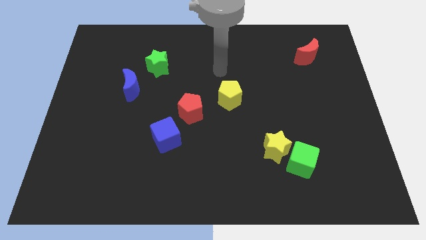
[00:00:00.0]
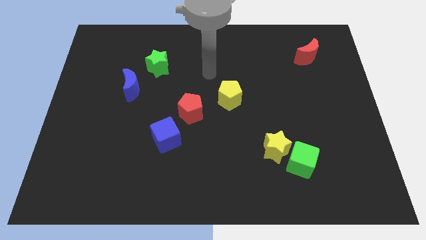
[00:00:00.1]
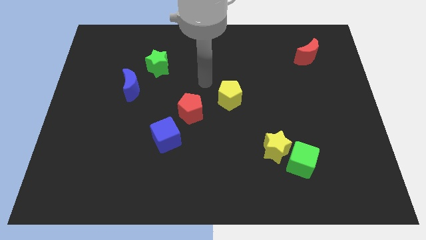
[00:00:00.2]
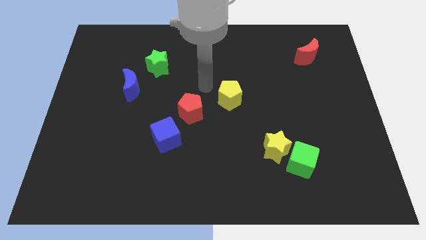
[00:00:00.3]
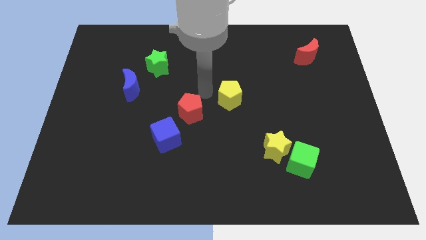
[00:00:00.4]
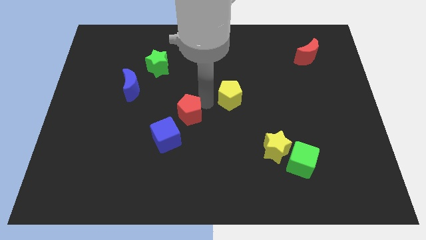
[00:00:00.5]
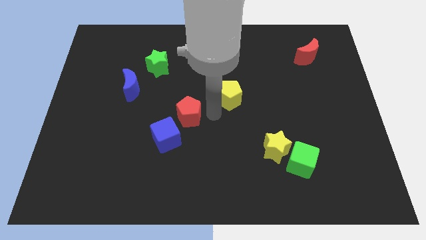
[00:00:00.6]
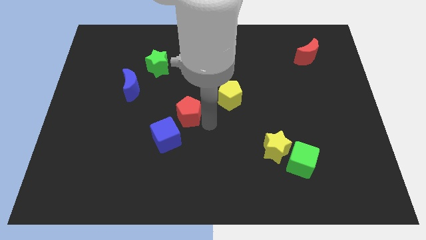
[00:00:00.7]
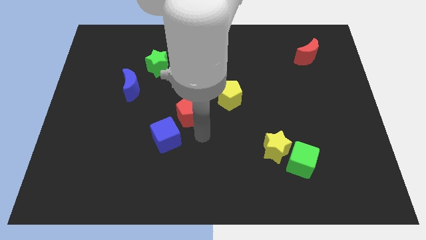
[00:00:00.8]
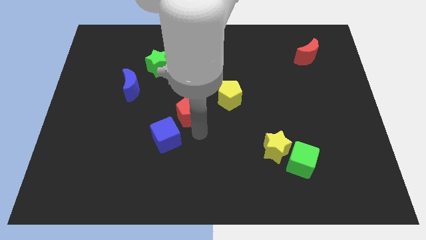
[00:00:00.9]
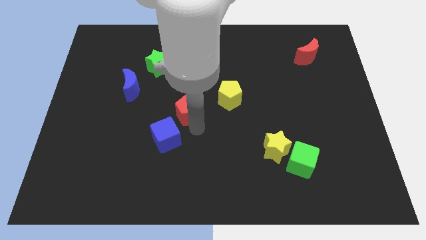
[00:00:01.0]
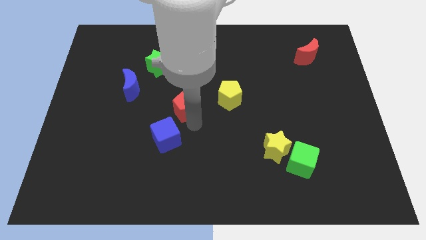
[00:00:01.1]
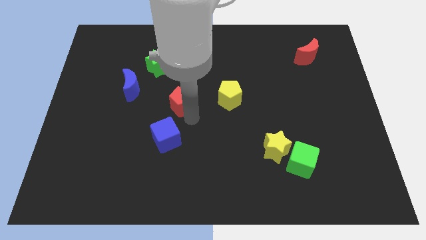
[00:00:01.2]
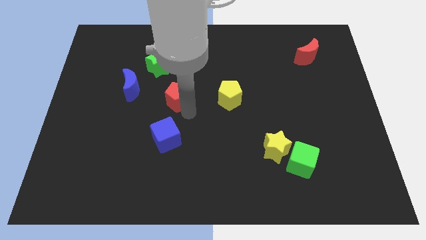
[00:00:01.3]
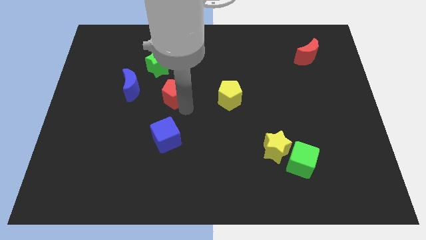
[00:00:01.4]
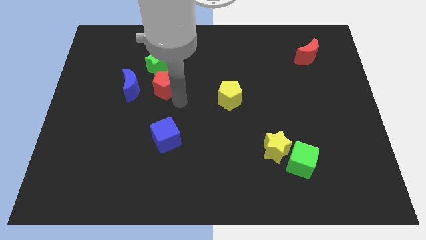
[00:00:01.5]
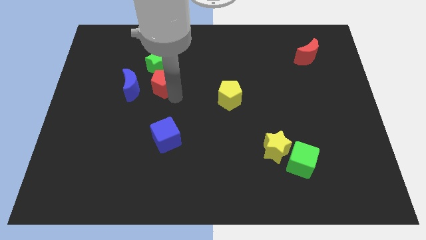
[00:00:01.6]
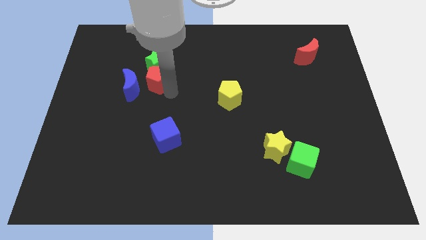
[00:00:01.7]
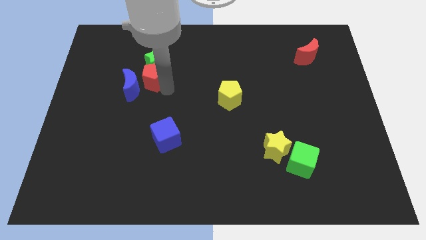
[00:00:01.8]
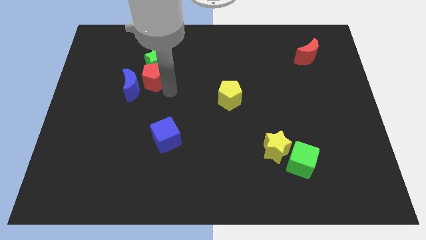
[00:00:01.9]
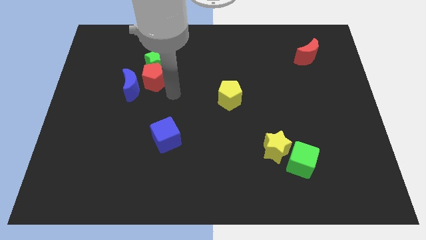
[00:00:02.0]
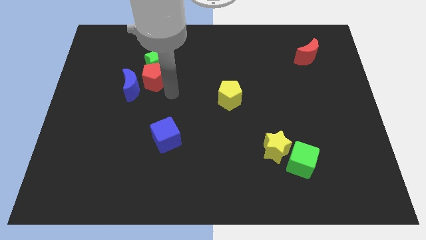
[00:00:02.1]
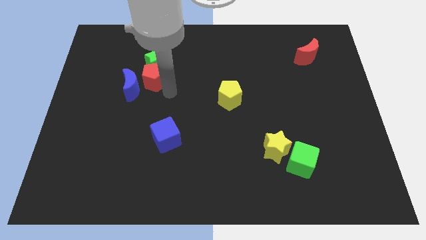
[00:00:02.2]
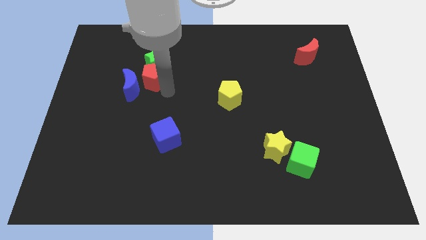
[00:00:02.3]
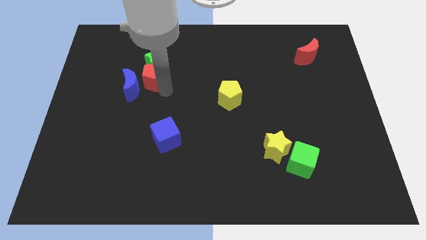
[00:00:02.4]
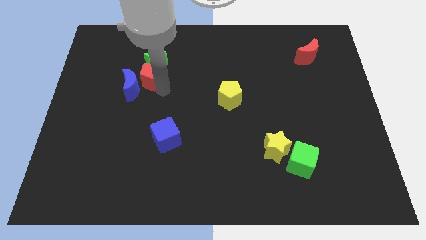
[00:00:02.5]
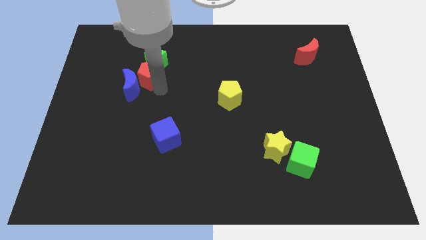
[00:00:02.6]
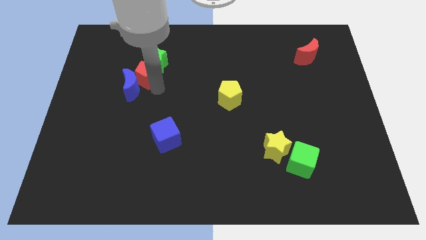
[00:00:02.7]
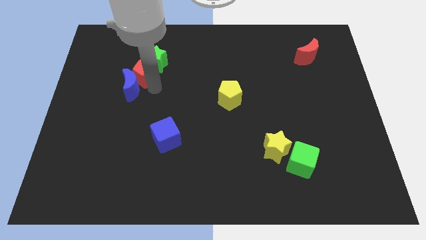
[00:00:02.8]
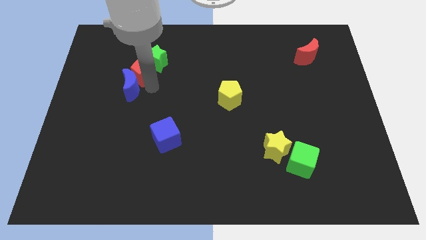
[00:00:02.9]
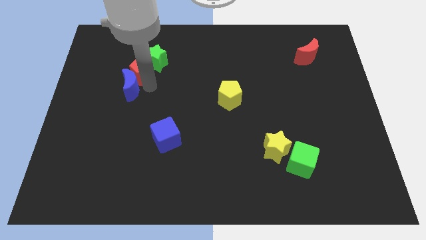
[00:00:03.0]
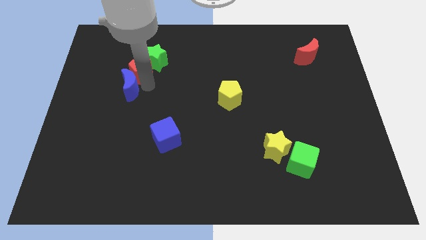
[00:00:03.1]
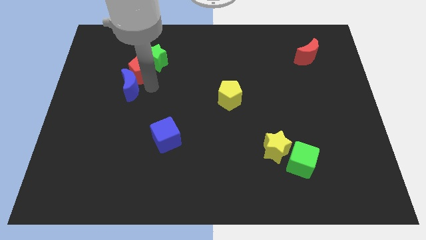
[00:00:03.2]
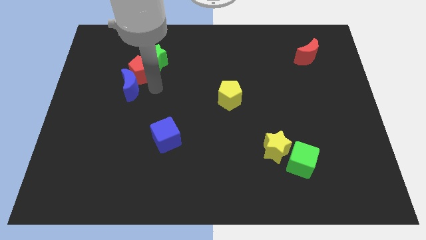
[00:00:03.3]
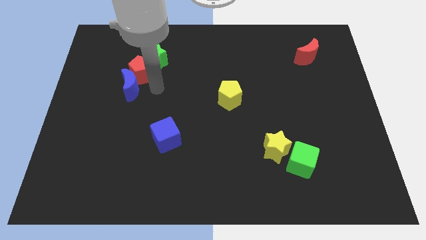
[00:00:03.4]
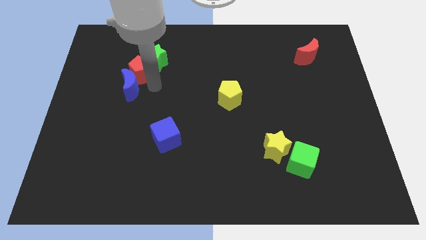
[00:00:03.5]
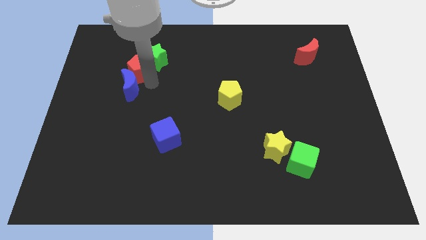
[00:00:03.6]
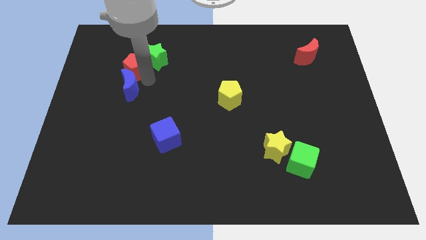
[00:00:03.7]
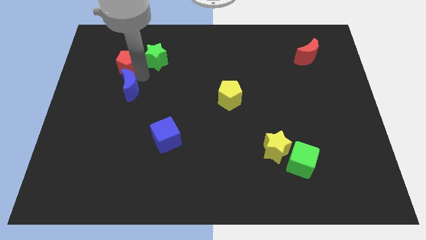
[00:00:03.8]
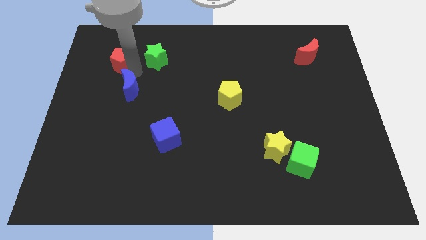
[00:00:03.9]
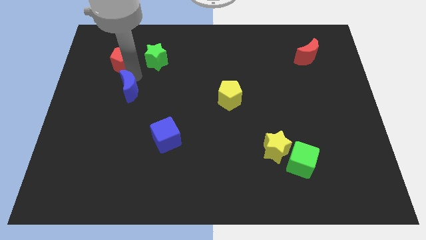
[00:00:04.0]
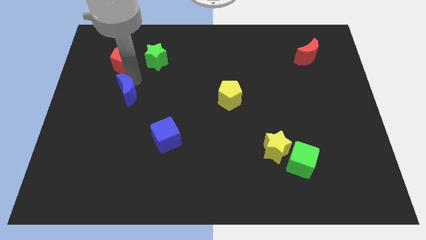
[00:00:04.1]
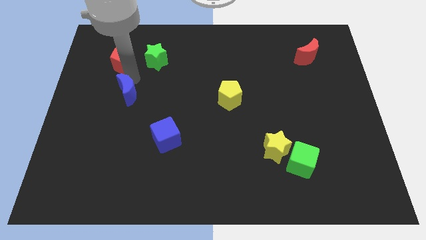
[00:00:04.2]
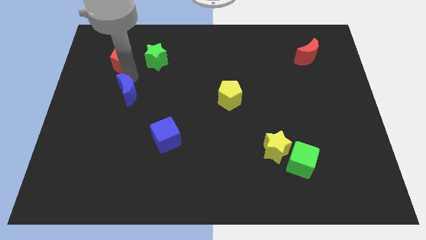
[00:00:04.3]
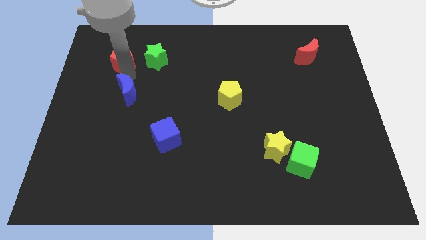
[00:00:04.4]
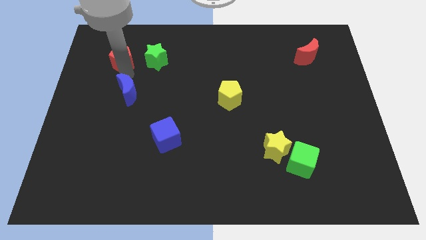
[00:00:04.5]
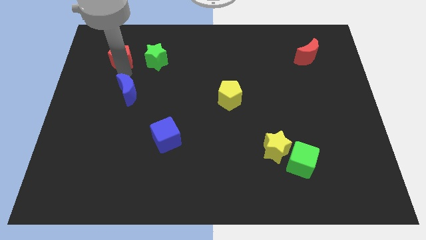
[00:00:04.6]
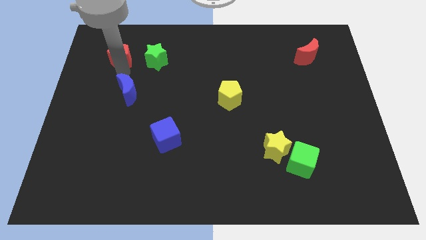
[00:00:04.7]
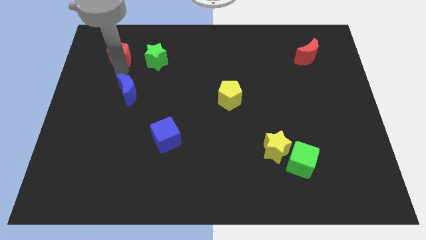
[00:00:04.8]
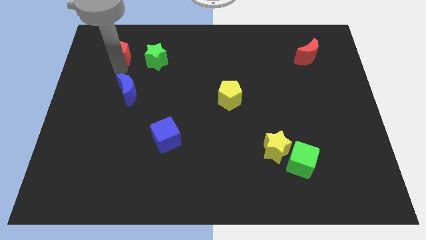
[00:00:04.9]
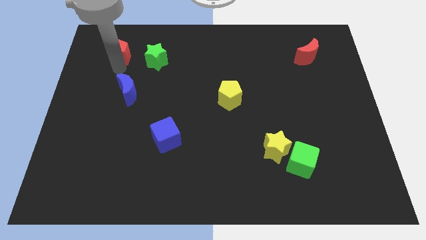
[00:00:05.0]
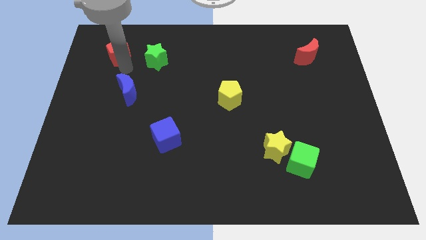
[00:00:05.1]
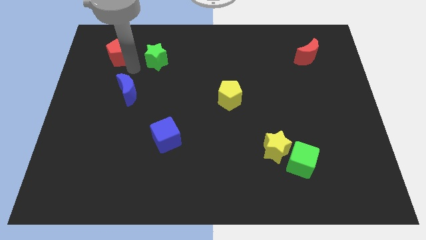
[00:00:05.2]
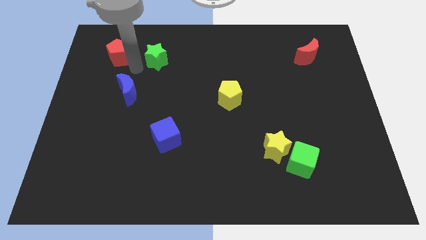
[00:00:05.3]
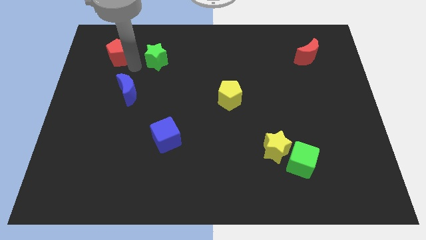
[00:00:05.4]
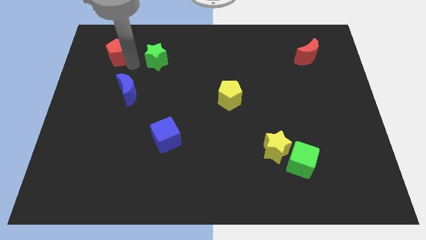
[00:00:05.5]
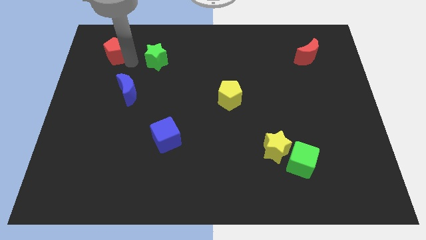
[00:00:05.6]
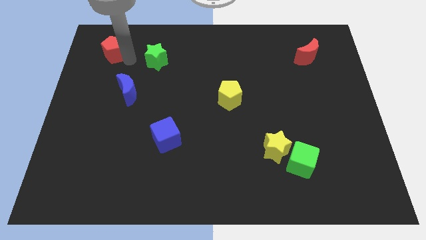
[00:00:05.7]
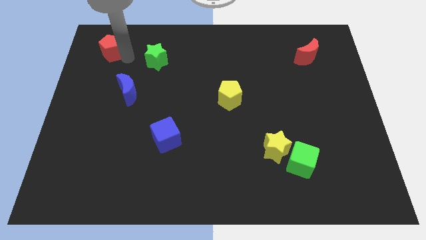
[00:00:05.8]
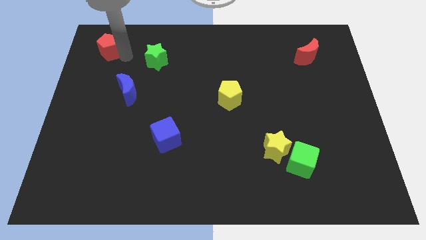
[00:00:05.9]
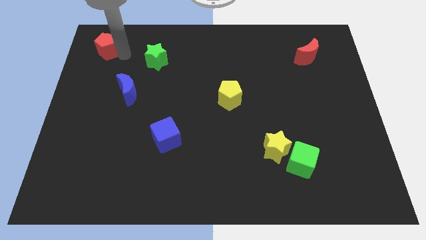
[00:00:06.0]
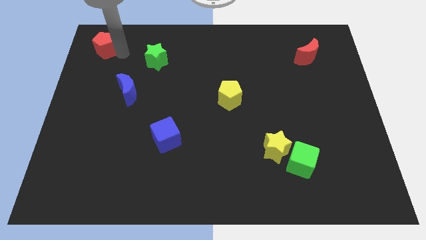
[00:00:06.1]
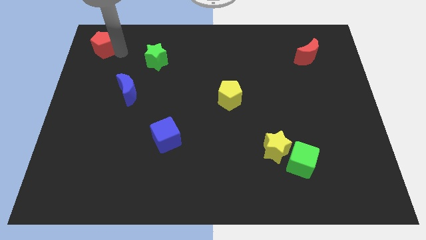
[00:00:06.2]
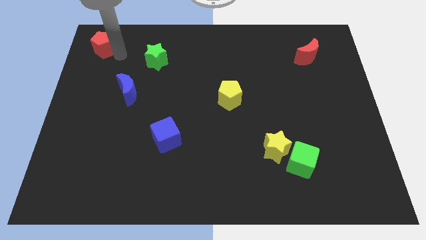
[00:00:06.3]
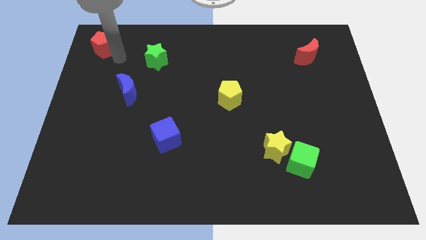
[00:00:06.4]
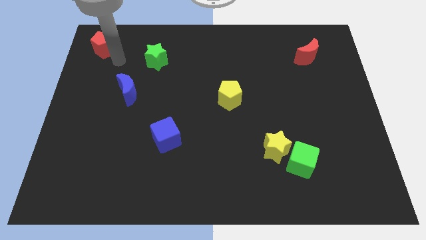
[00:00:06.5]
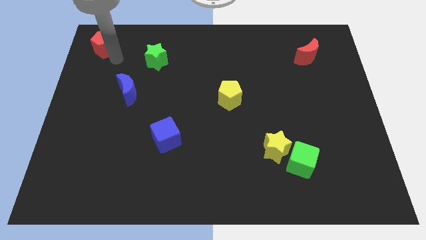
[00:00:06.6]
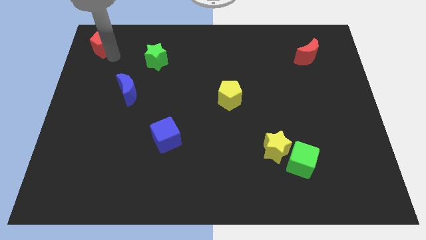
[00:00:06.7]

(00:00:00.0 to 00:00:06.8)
slide the red pentagon to the top left

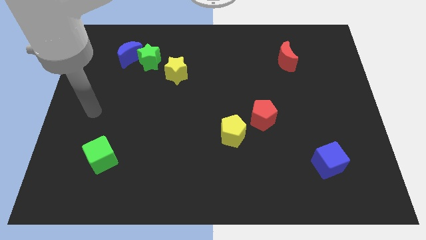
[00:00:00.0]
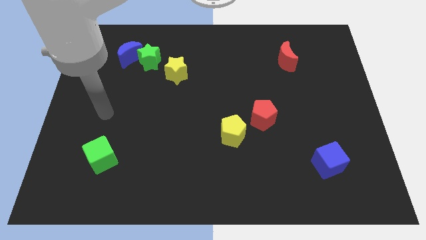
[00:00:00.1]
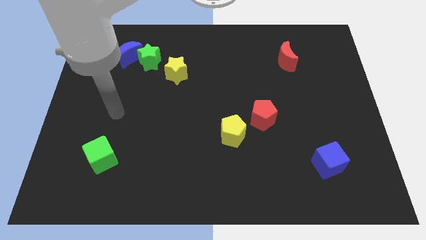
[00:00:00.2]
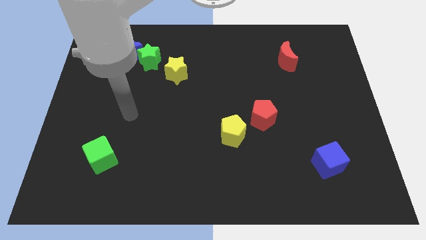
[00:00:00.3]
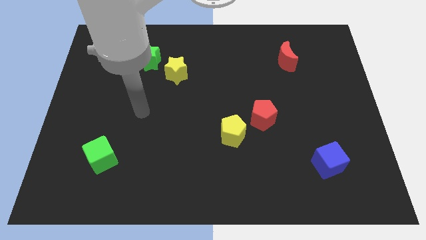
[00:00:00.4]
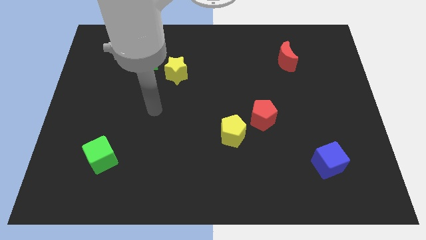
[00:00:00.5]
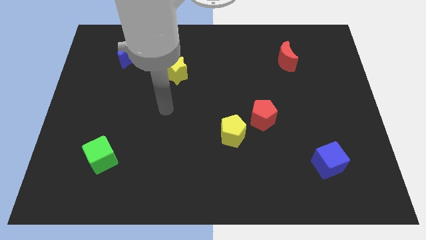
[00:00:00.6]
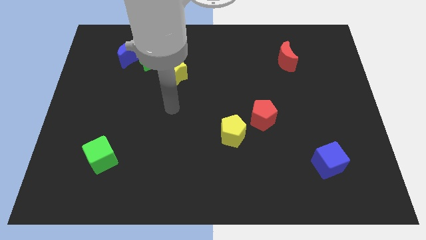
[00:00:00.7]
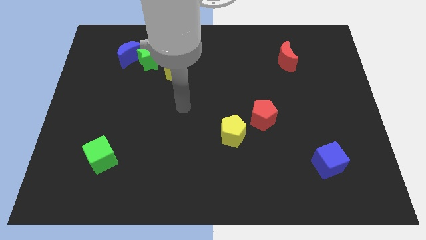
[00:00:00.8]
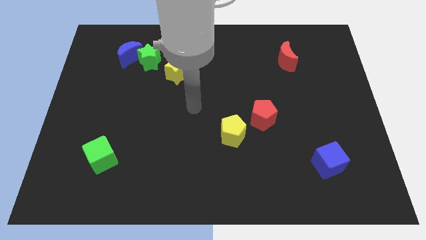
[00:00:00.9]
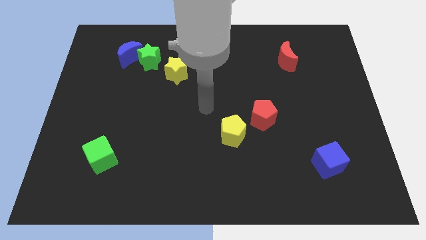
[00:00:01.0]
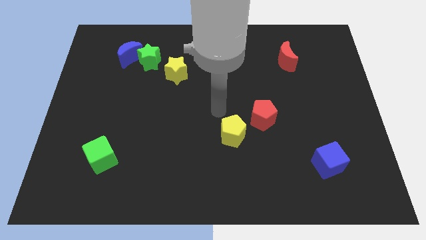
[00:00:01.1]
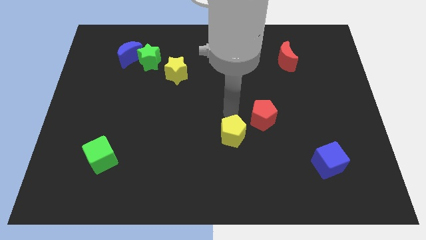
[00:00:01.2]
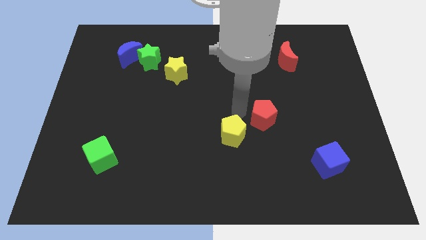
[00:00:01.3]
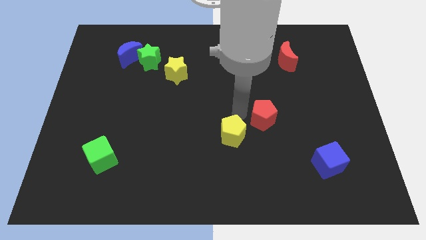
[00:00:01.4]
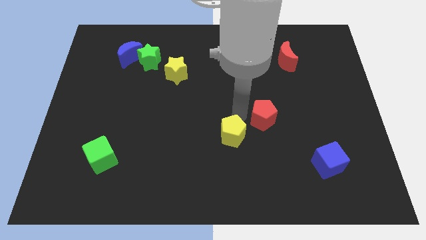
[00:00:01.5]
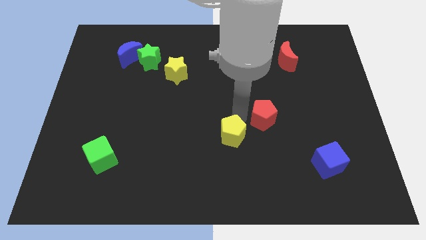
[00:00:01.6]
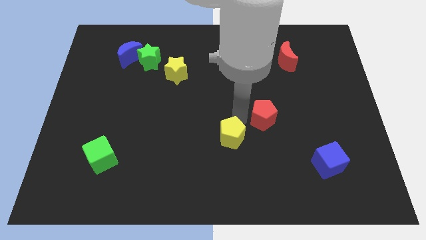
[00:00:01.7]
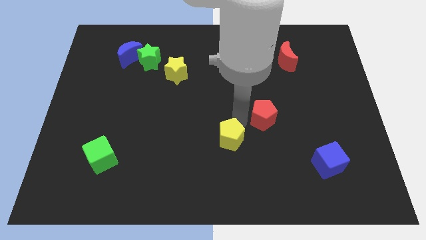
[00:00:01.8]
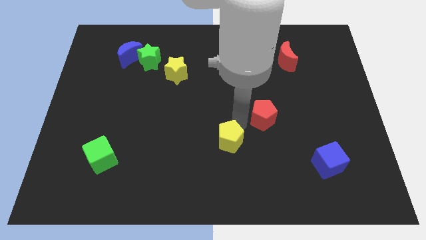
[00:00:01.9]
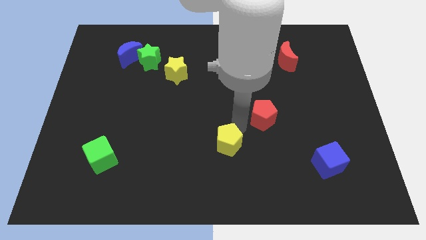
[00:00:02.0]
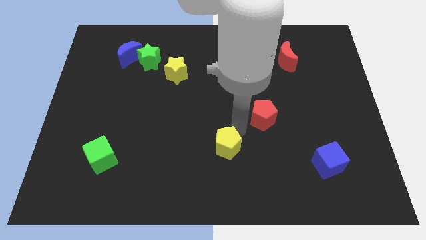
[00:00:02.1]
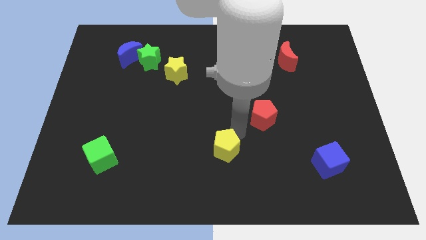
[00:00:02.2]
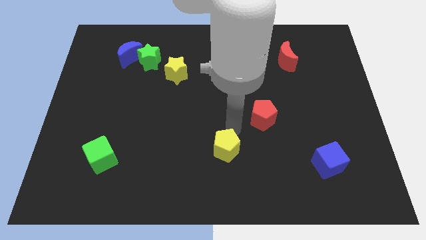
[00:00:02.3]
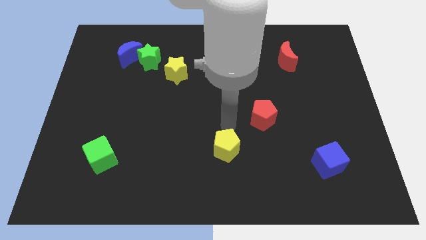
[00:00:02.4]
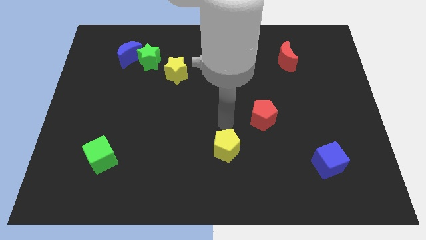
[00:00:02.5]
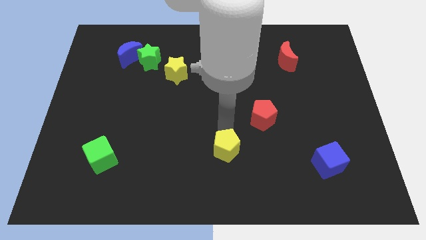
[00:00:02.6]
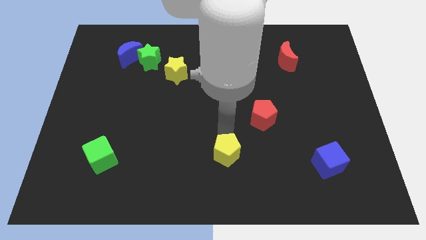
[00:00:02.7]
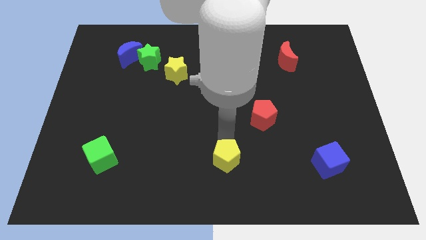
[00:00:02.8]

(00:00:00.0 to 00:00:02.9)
push the yellow pentagon to the bottom side
